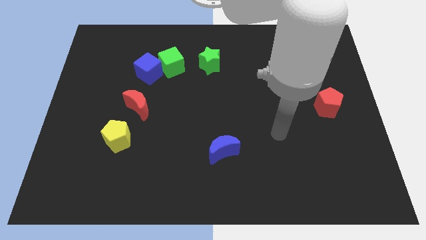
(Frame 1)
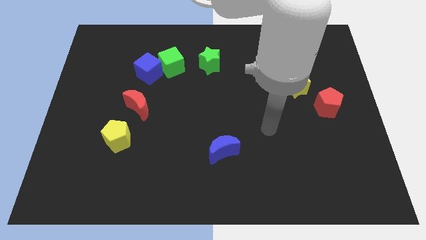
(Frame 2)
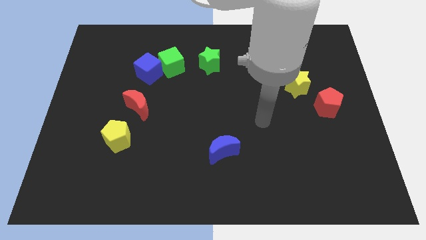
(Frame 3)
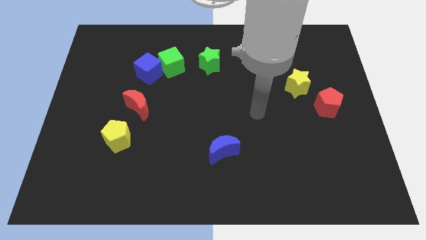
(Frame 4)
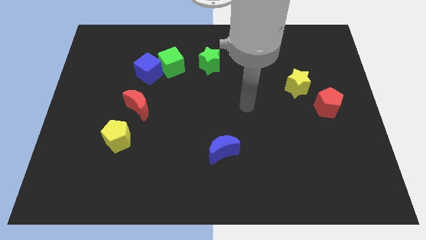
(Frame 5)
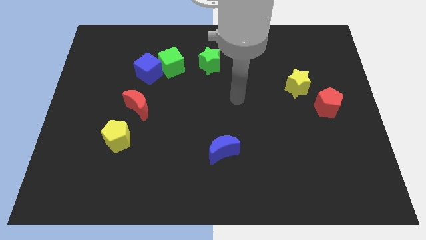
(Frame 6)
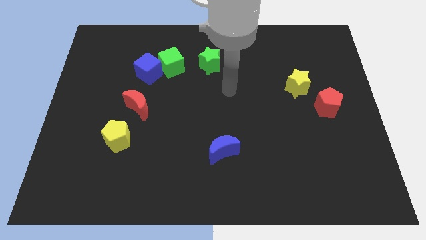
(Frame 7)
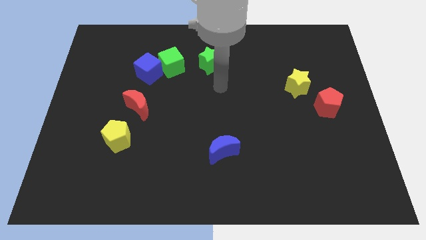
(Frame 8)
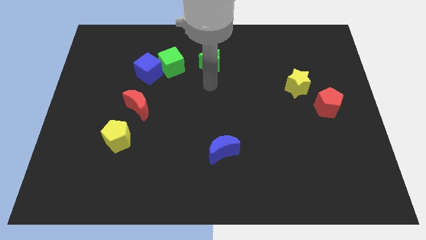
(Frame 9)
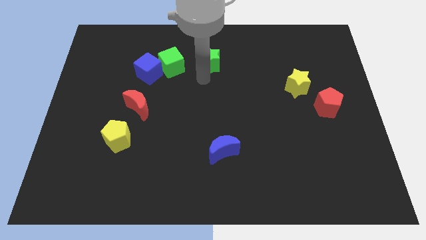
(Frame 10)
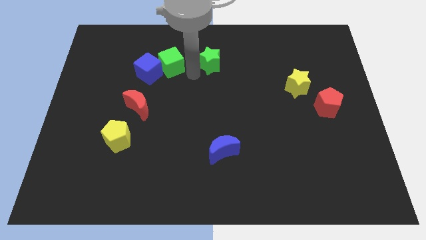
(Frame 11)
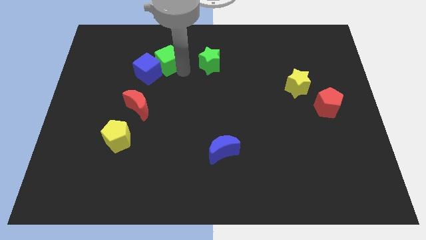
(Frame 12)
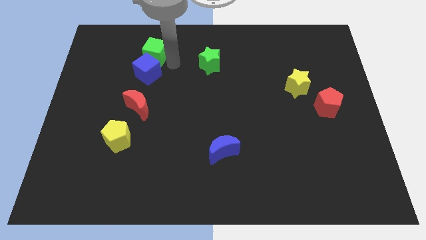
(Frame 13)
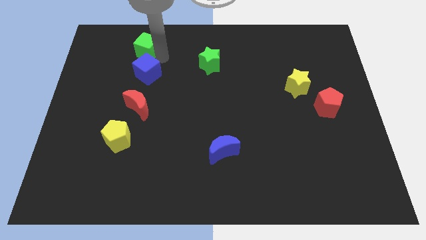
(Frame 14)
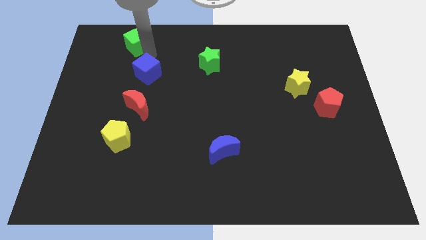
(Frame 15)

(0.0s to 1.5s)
pull the blue cube apart from the green cube

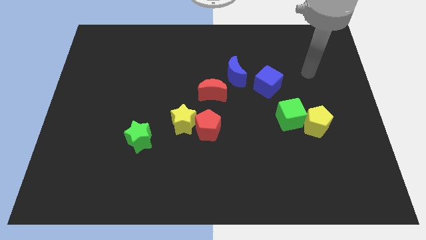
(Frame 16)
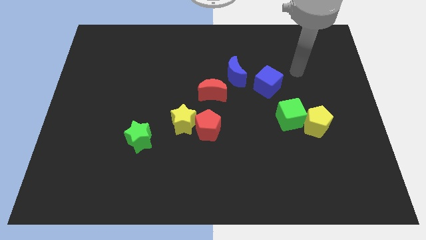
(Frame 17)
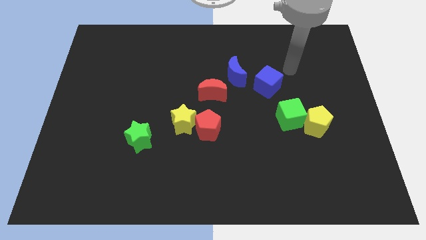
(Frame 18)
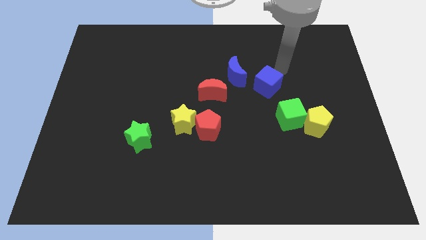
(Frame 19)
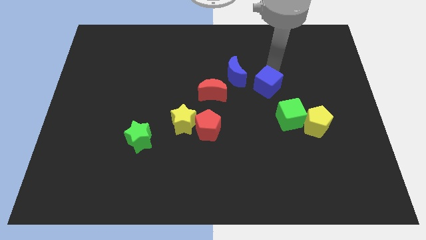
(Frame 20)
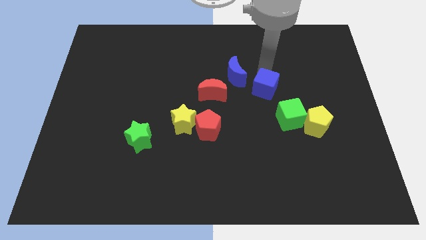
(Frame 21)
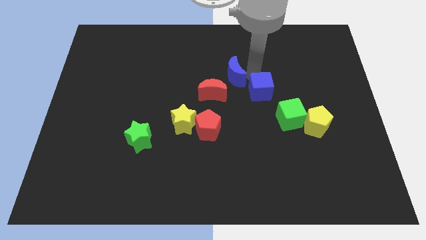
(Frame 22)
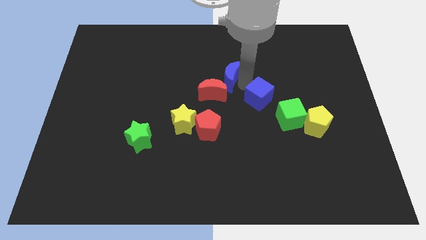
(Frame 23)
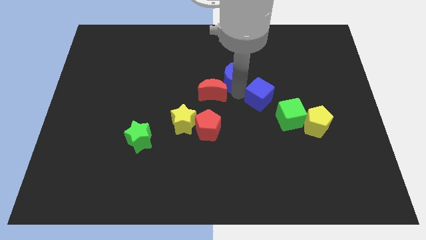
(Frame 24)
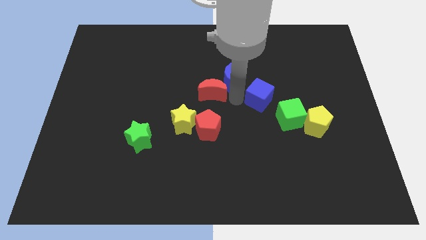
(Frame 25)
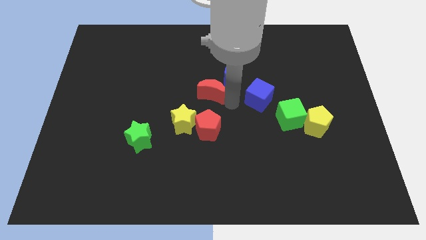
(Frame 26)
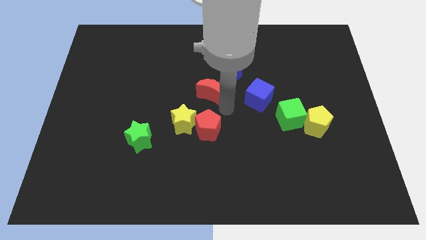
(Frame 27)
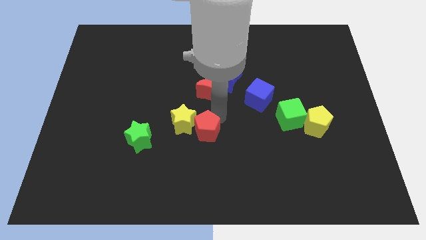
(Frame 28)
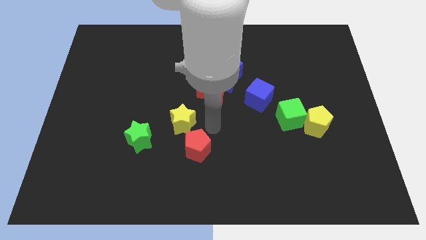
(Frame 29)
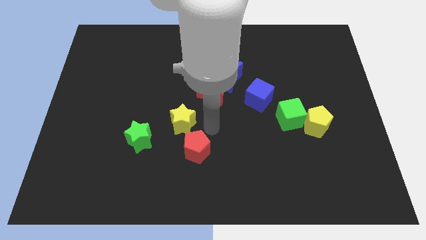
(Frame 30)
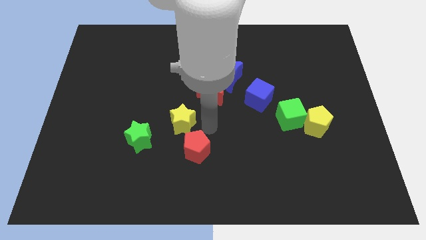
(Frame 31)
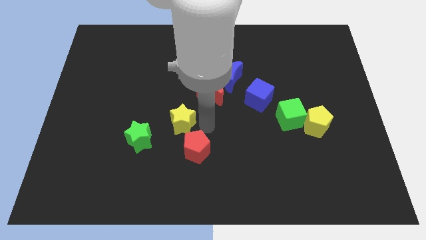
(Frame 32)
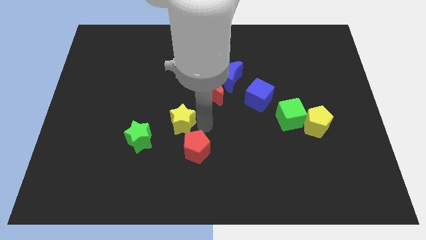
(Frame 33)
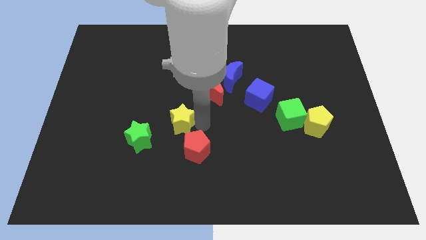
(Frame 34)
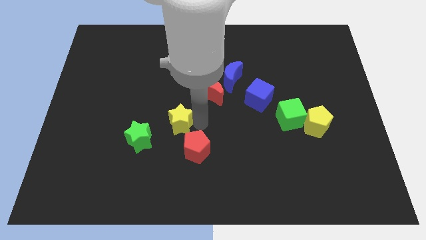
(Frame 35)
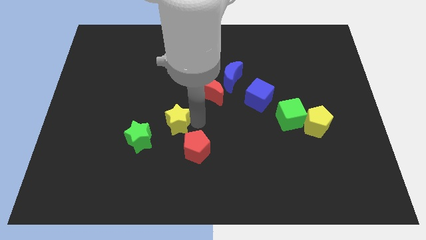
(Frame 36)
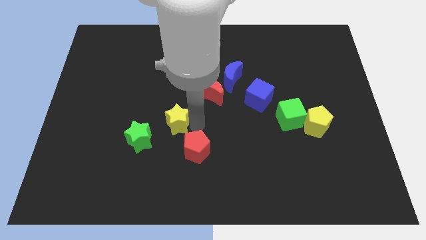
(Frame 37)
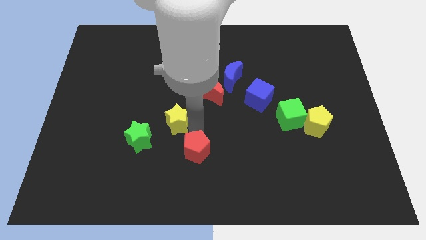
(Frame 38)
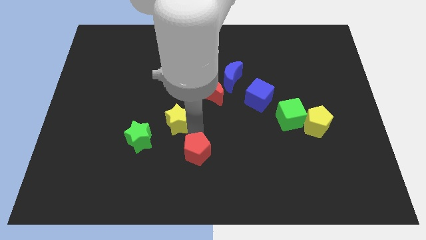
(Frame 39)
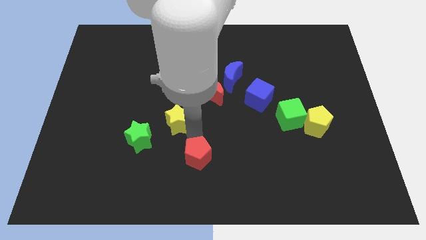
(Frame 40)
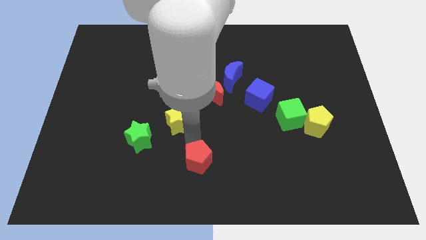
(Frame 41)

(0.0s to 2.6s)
separate the yellow star from the red pentagon

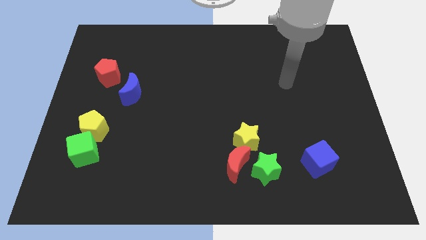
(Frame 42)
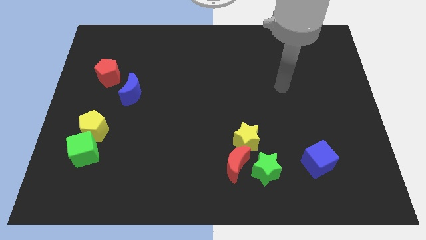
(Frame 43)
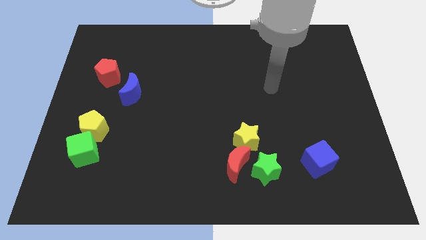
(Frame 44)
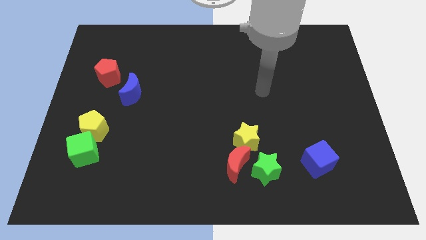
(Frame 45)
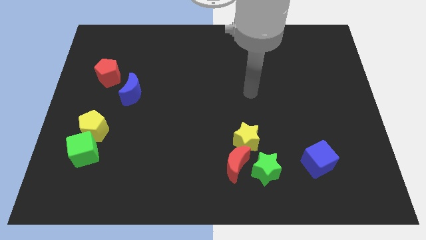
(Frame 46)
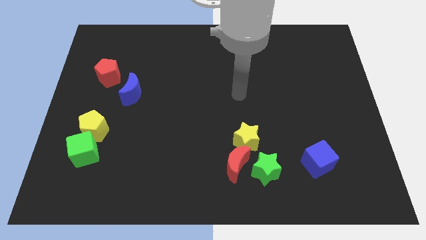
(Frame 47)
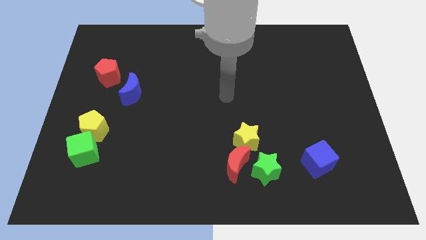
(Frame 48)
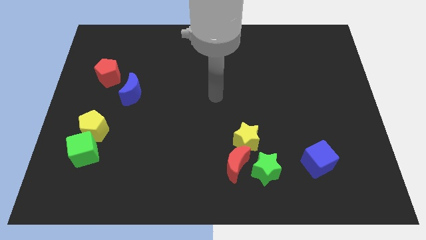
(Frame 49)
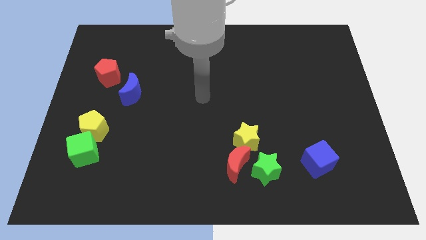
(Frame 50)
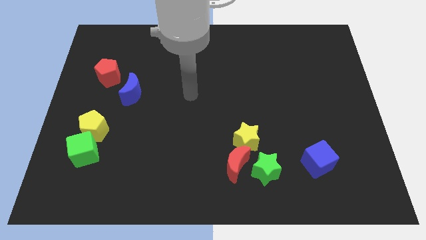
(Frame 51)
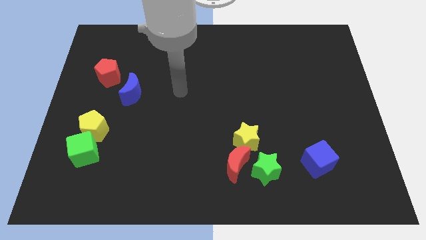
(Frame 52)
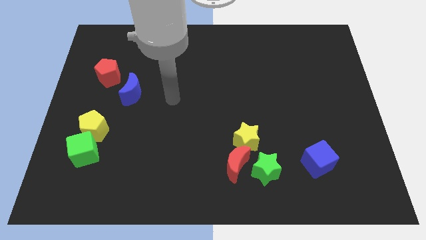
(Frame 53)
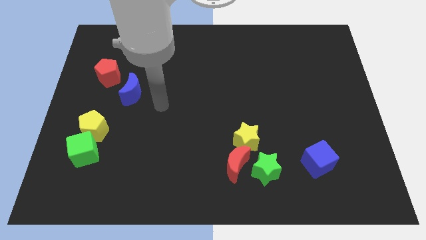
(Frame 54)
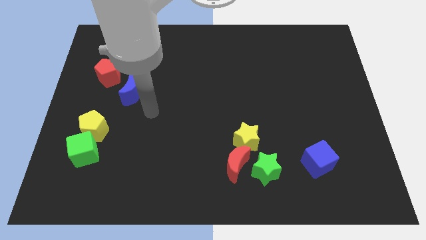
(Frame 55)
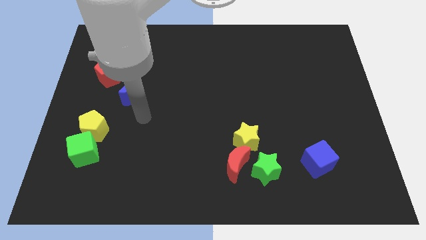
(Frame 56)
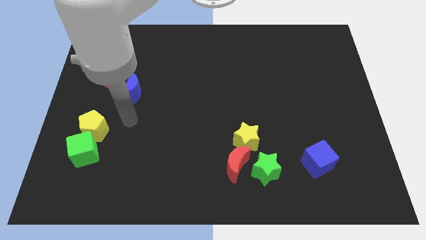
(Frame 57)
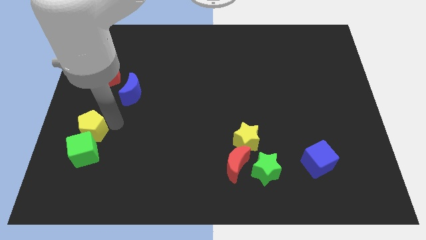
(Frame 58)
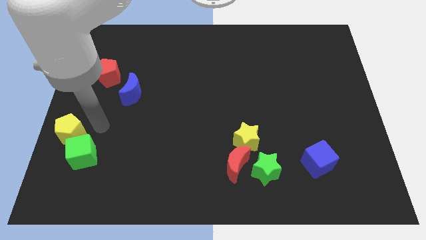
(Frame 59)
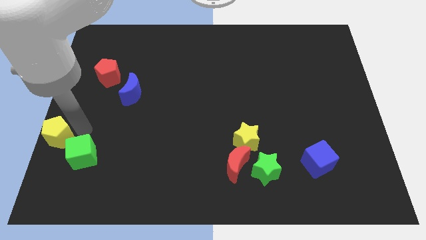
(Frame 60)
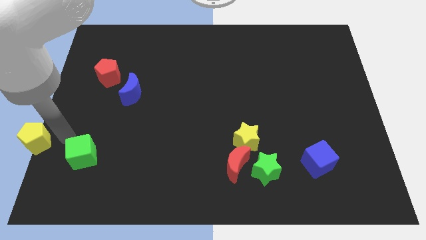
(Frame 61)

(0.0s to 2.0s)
separate the green cube from the yellow pentagon

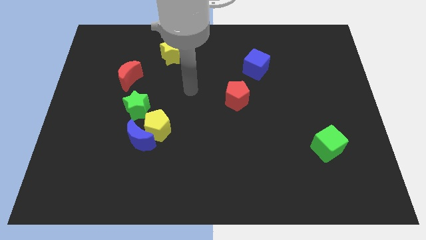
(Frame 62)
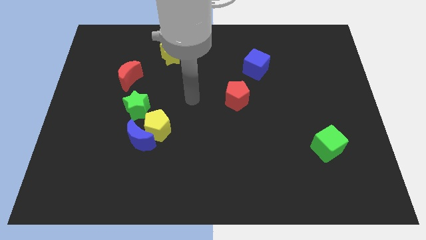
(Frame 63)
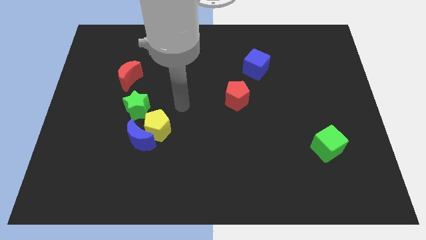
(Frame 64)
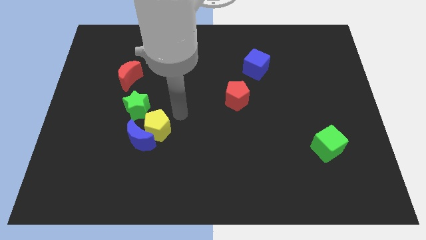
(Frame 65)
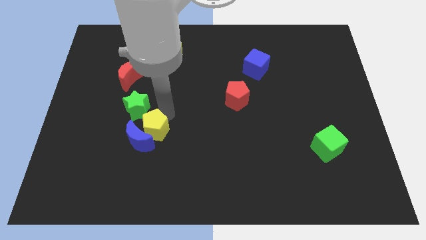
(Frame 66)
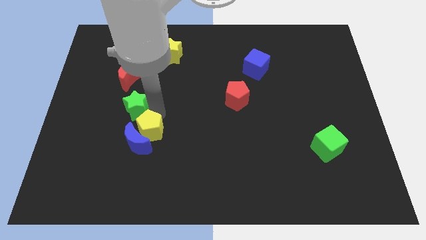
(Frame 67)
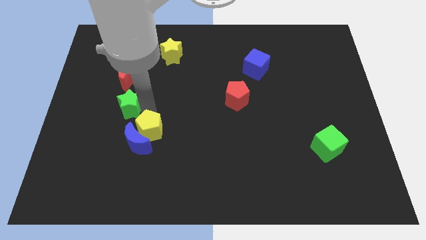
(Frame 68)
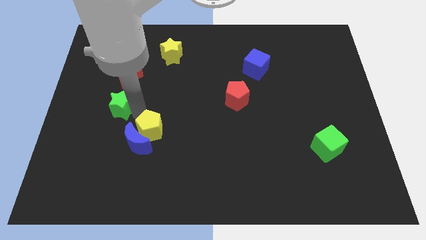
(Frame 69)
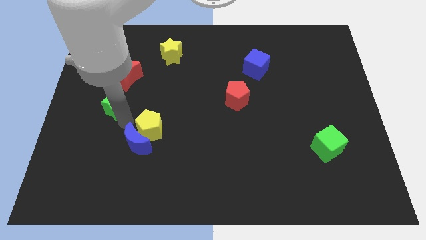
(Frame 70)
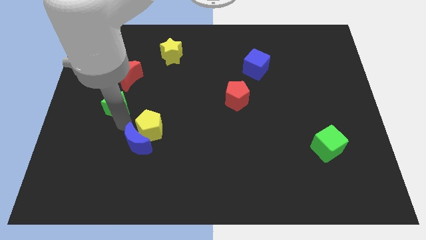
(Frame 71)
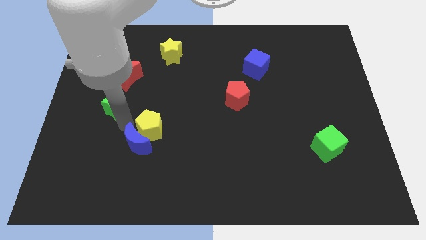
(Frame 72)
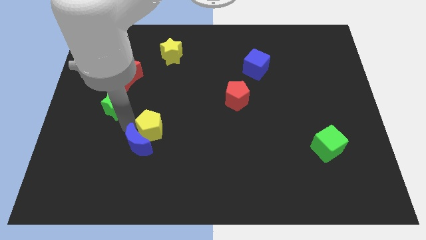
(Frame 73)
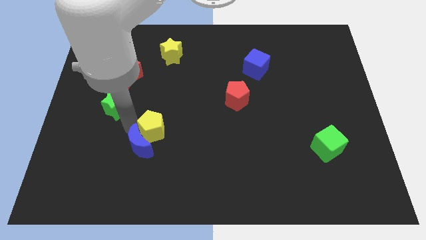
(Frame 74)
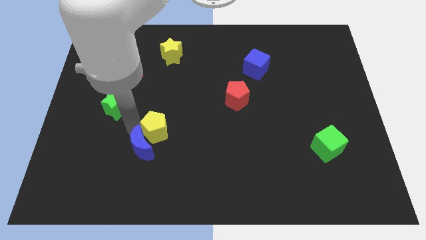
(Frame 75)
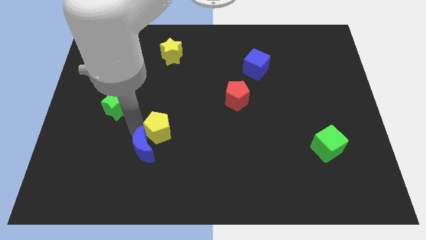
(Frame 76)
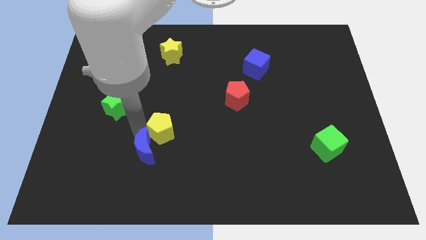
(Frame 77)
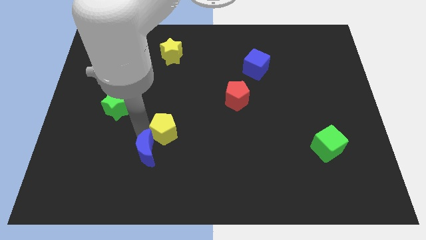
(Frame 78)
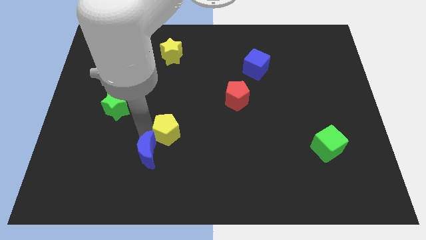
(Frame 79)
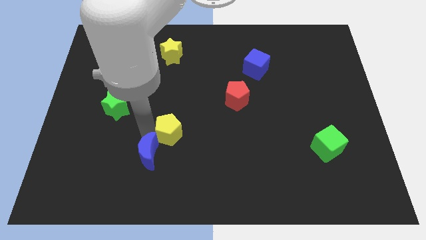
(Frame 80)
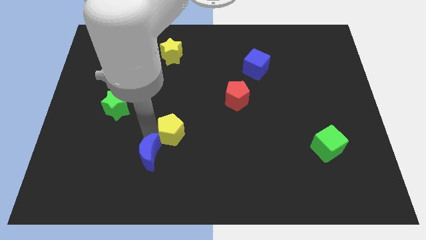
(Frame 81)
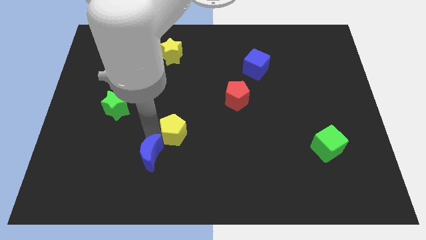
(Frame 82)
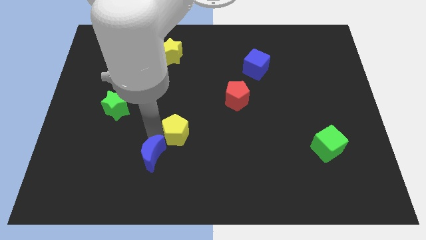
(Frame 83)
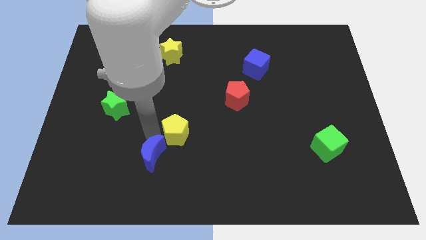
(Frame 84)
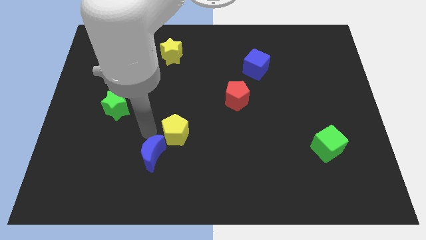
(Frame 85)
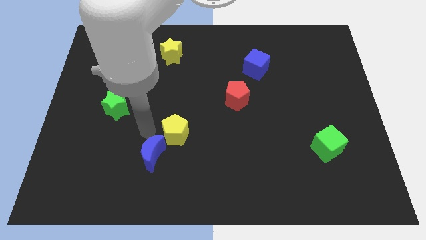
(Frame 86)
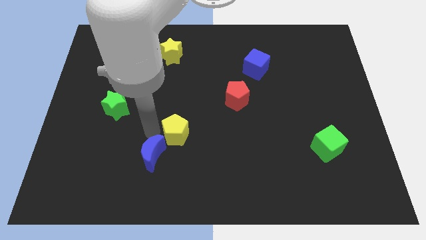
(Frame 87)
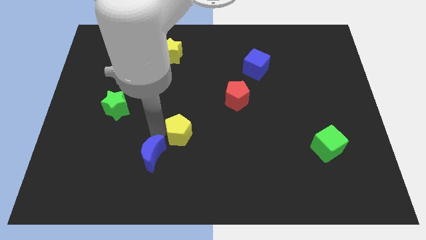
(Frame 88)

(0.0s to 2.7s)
move the yellow pentagon away from the blue moon and green star

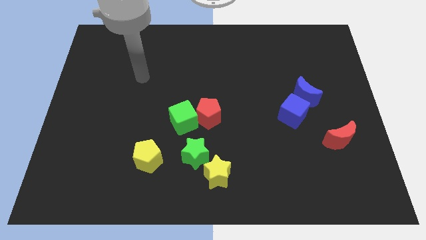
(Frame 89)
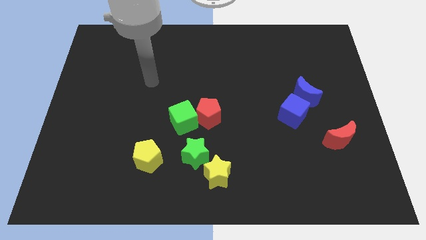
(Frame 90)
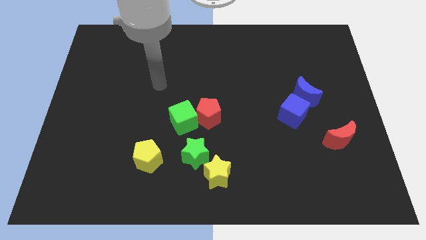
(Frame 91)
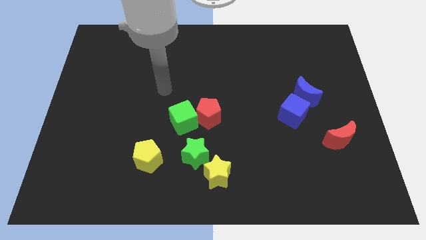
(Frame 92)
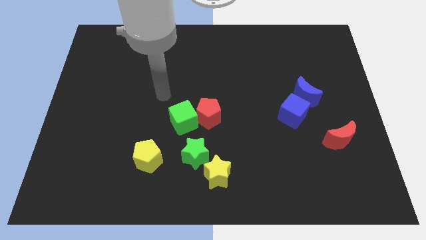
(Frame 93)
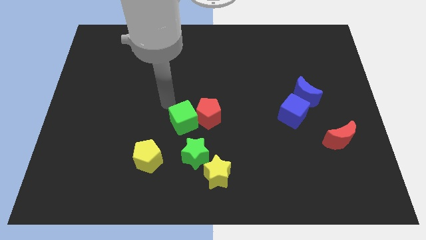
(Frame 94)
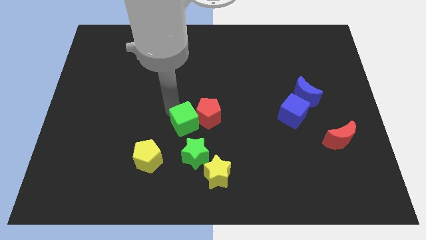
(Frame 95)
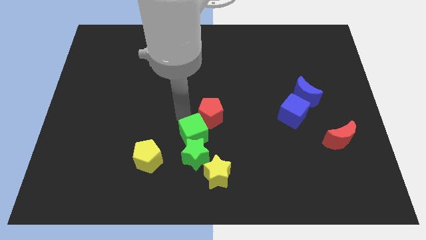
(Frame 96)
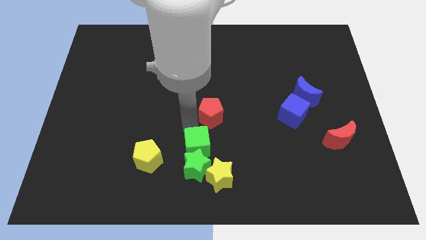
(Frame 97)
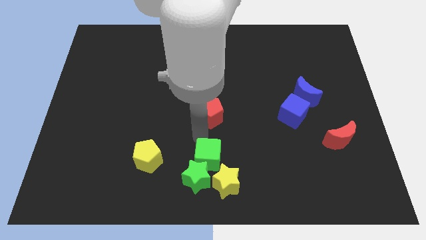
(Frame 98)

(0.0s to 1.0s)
move the red pentagon away from the green cube
